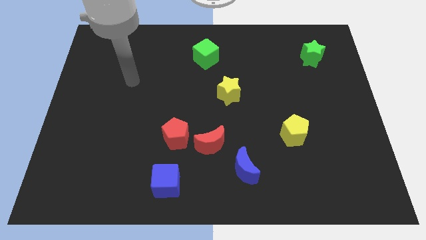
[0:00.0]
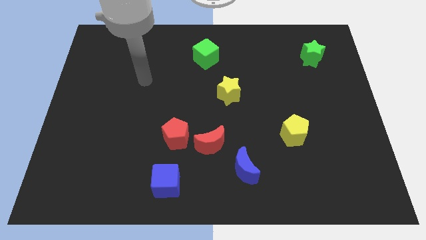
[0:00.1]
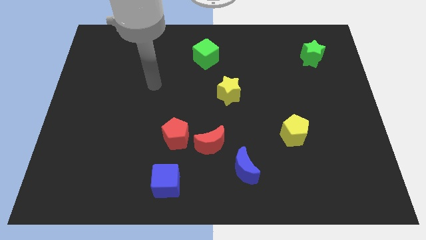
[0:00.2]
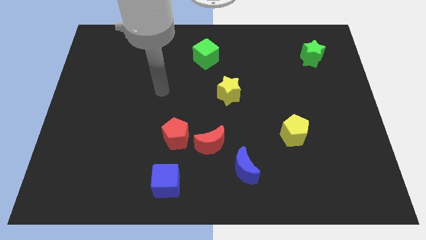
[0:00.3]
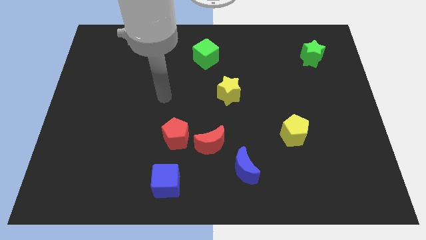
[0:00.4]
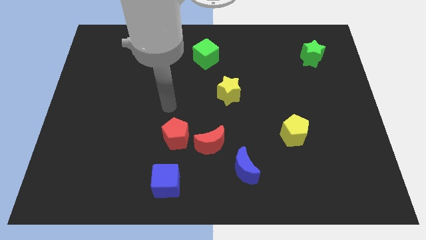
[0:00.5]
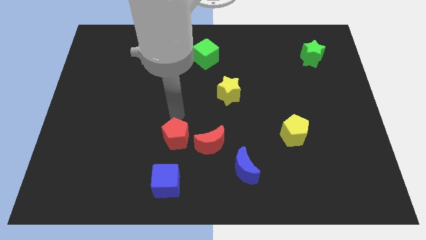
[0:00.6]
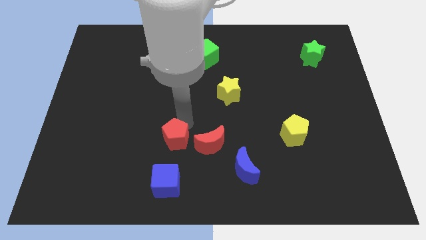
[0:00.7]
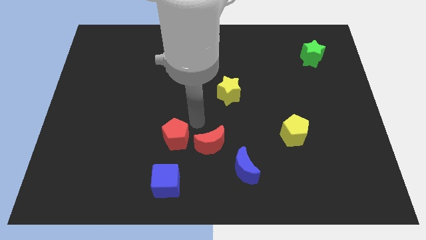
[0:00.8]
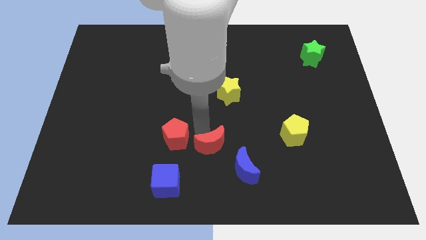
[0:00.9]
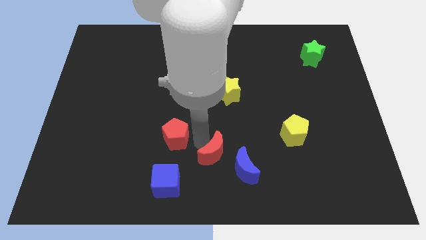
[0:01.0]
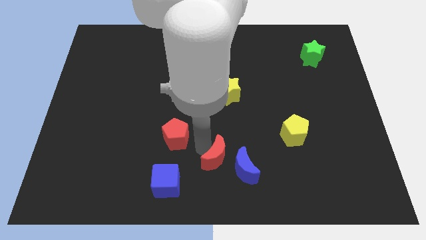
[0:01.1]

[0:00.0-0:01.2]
move the red pentagon away from the red moon

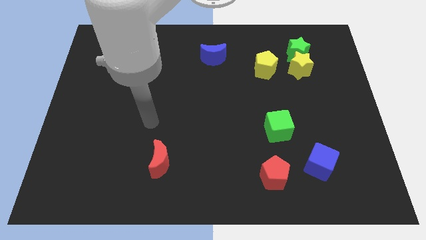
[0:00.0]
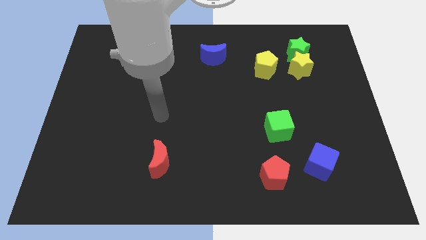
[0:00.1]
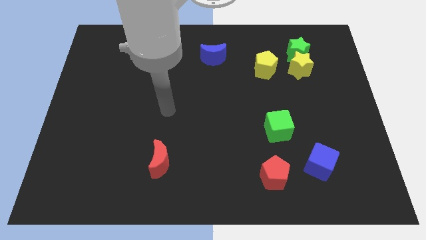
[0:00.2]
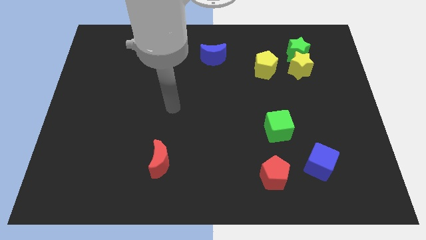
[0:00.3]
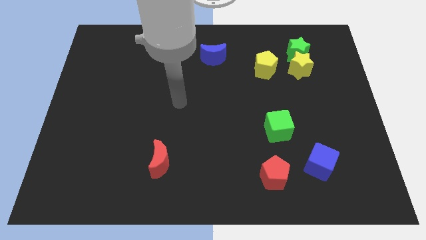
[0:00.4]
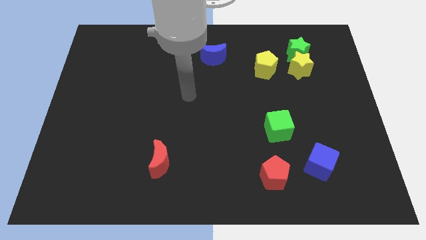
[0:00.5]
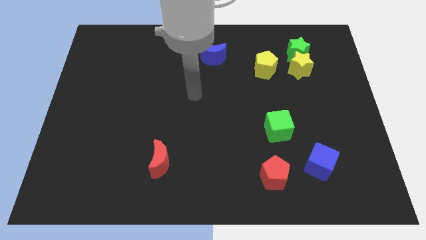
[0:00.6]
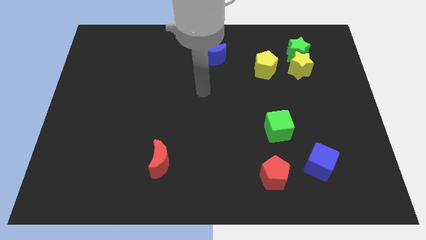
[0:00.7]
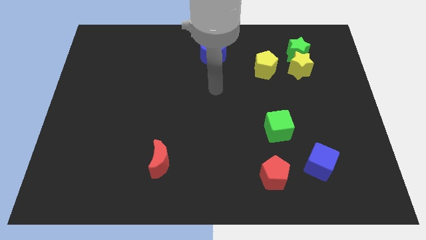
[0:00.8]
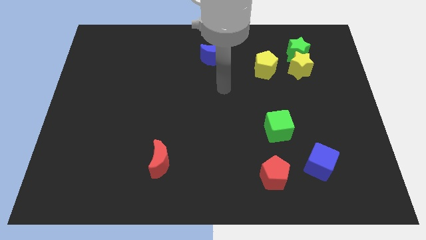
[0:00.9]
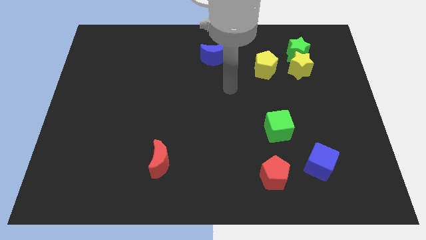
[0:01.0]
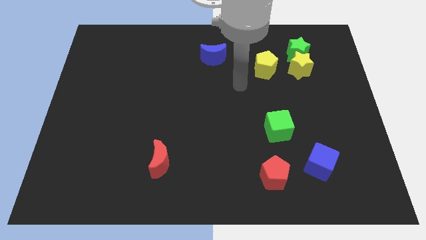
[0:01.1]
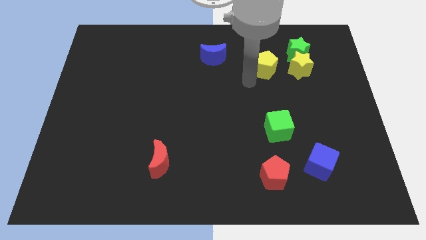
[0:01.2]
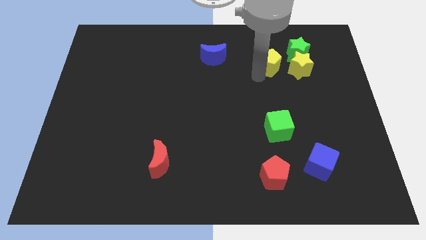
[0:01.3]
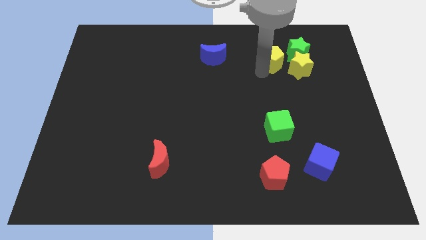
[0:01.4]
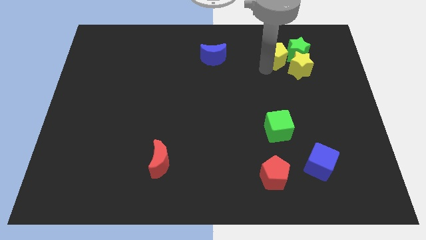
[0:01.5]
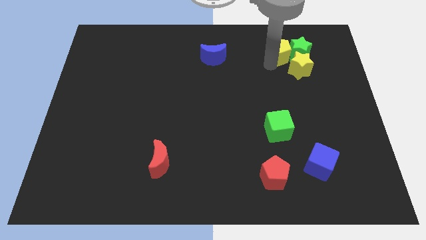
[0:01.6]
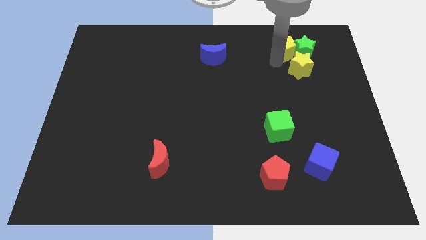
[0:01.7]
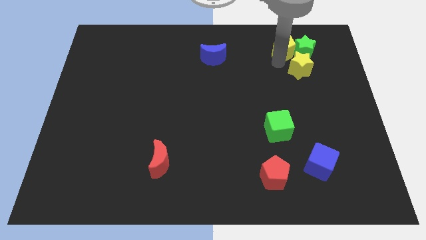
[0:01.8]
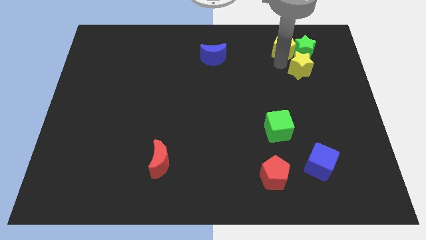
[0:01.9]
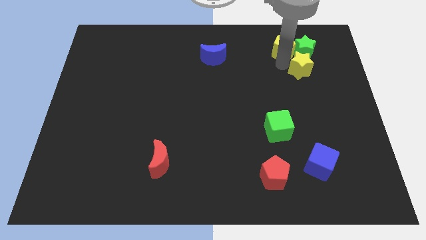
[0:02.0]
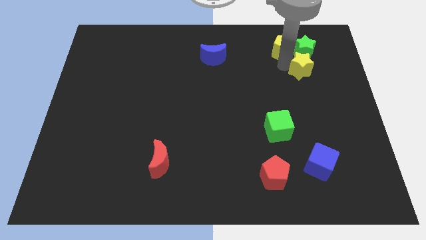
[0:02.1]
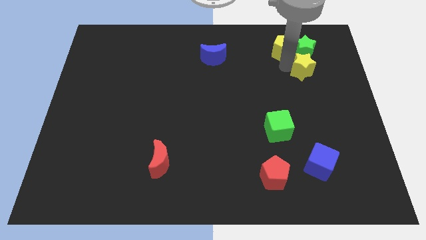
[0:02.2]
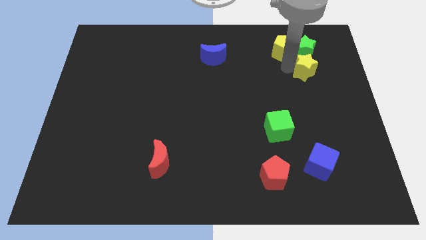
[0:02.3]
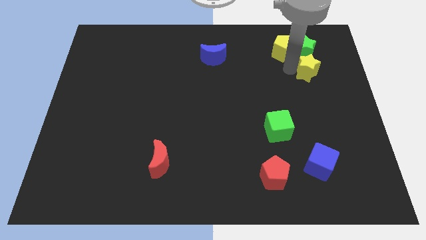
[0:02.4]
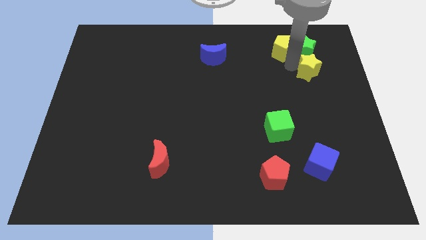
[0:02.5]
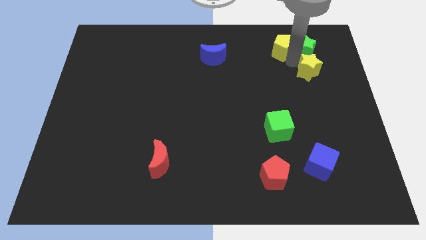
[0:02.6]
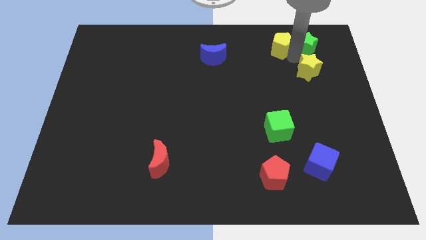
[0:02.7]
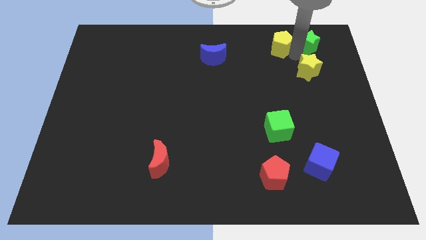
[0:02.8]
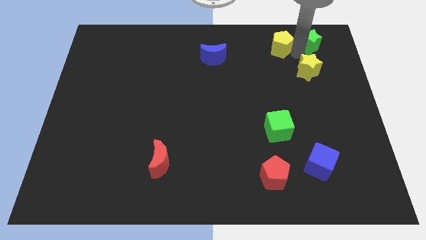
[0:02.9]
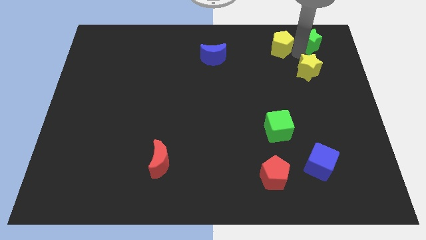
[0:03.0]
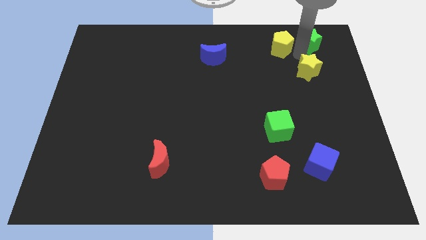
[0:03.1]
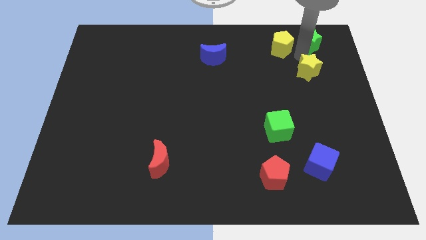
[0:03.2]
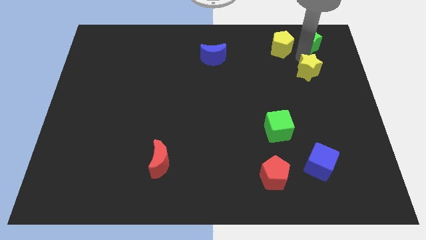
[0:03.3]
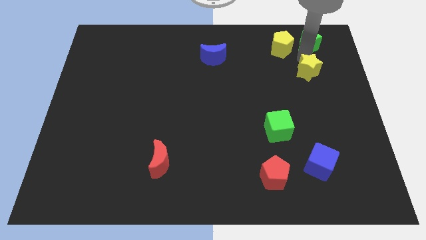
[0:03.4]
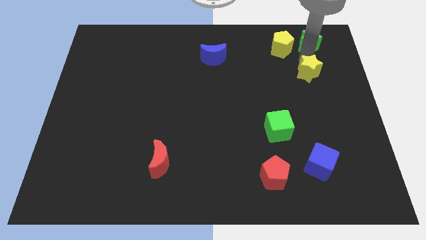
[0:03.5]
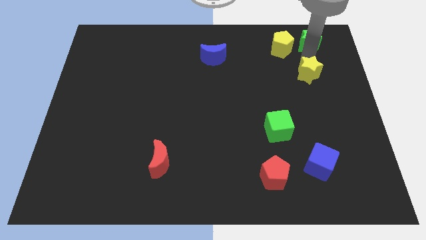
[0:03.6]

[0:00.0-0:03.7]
move the yellow star away from the green star and yellow pentagon

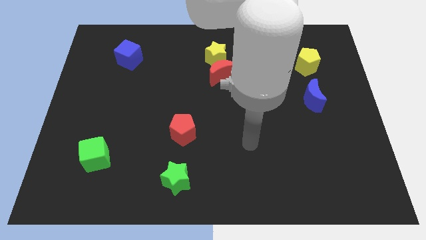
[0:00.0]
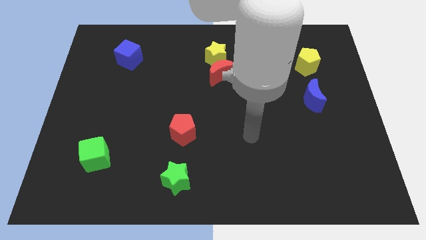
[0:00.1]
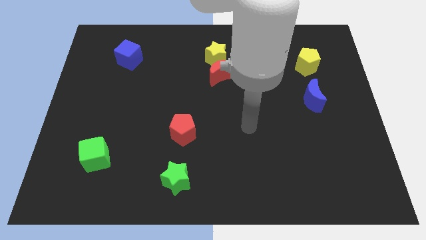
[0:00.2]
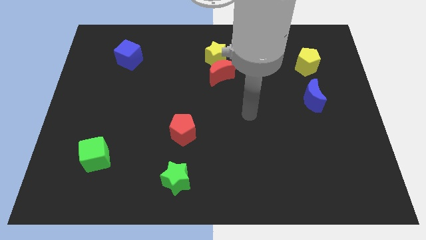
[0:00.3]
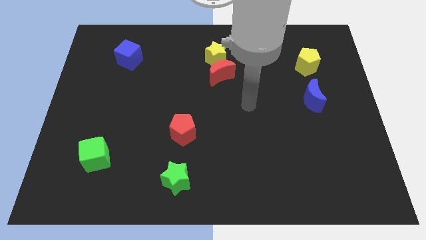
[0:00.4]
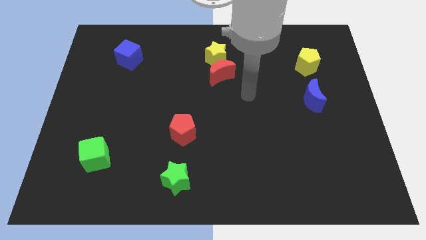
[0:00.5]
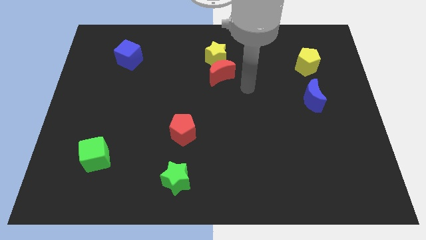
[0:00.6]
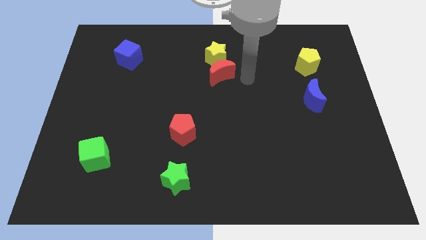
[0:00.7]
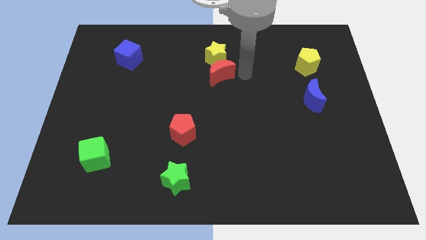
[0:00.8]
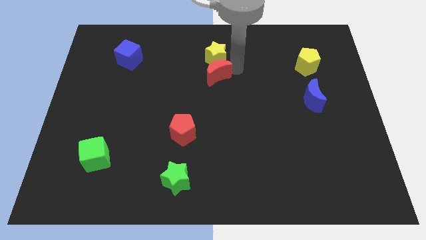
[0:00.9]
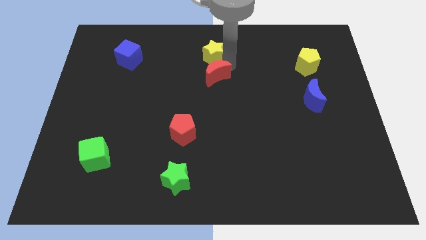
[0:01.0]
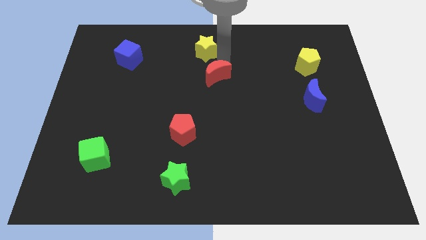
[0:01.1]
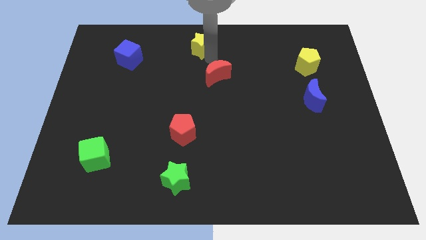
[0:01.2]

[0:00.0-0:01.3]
separate the red moon from the yellow star

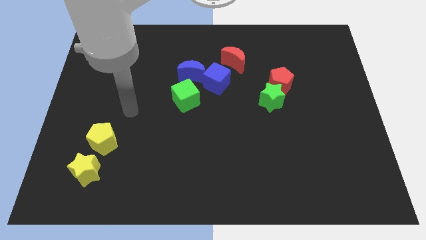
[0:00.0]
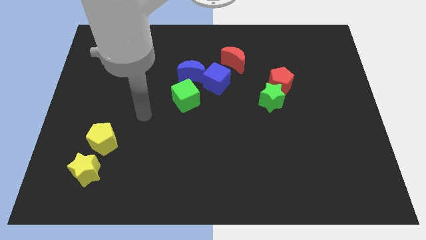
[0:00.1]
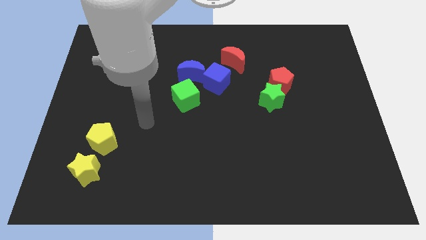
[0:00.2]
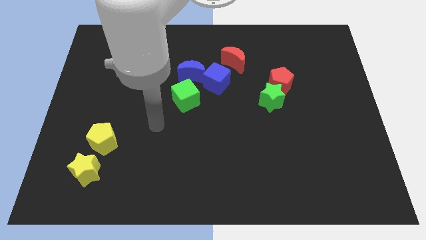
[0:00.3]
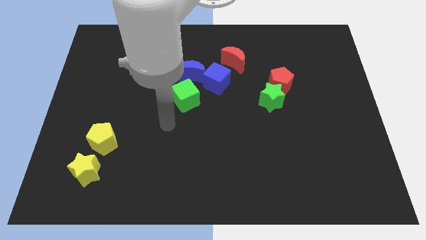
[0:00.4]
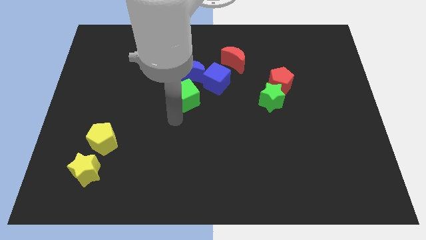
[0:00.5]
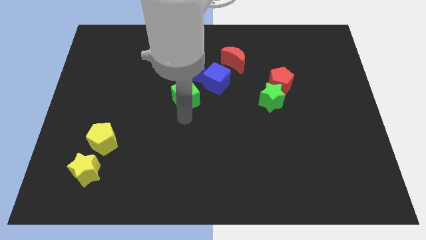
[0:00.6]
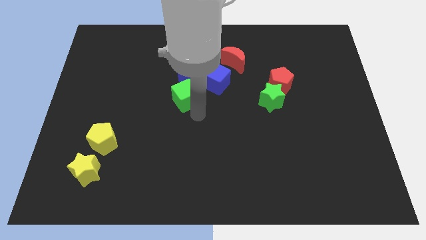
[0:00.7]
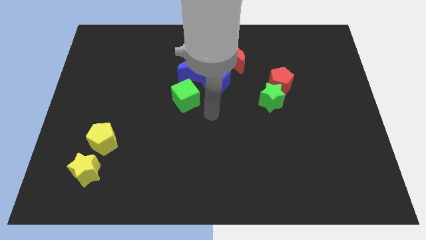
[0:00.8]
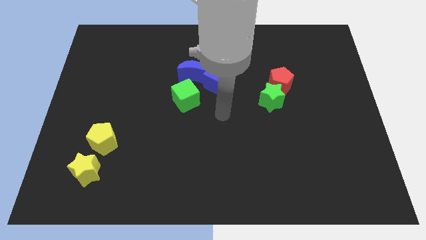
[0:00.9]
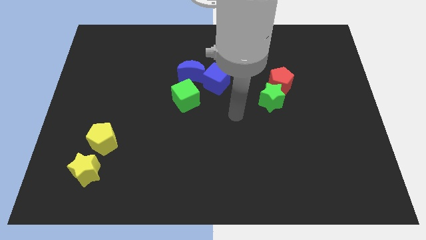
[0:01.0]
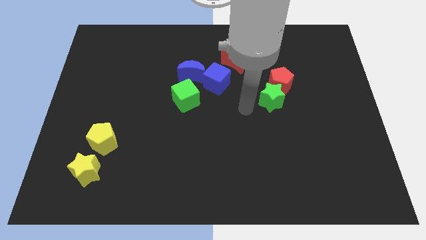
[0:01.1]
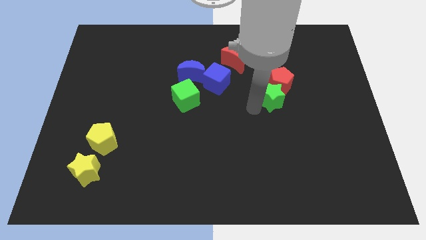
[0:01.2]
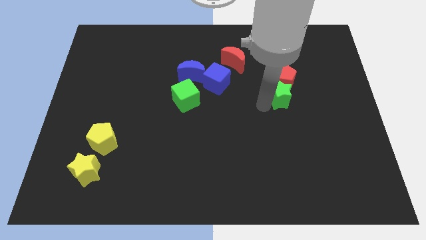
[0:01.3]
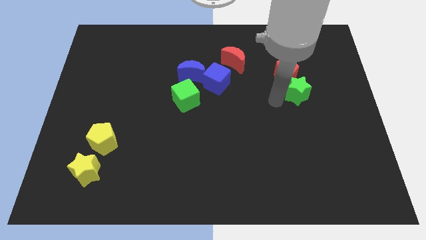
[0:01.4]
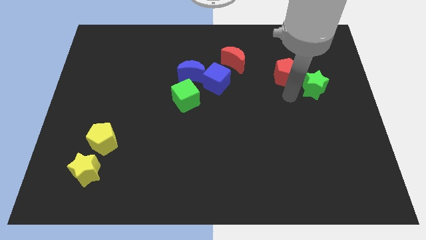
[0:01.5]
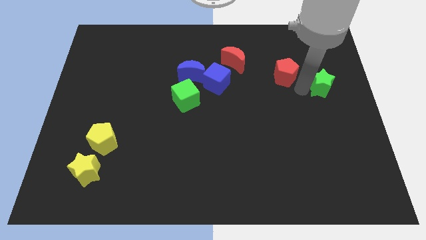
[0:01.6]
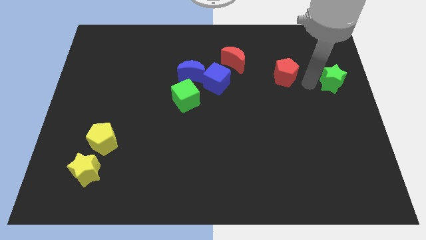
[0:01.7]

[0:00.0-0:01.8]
move the red pentagon away from the green star

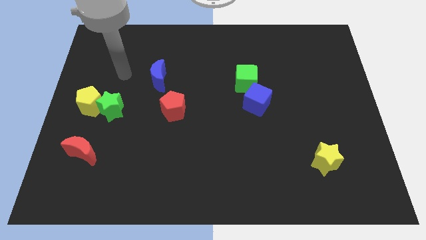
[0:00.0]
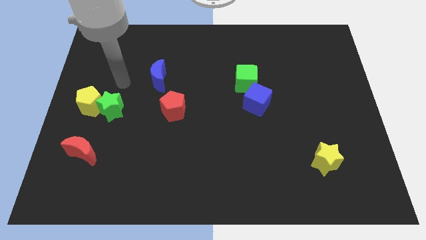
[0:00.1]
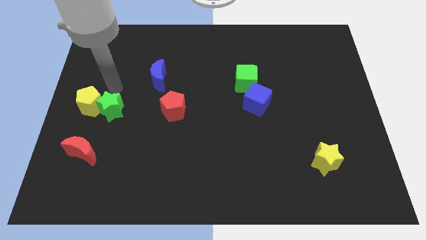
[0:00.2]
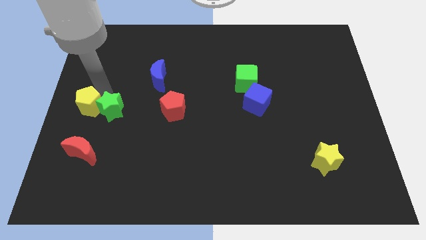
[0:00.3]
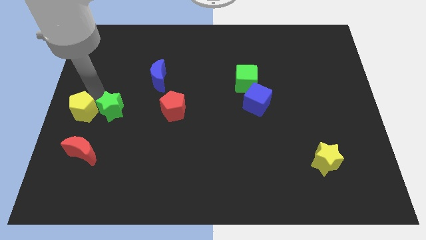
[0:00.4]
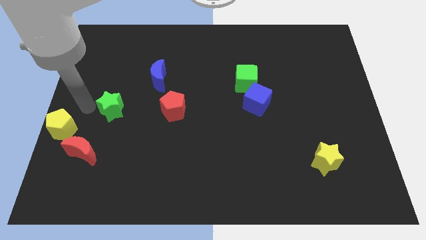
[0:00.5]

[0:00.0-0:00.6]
move the green star away from the yellow pentagon

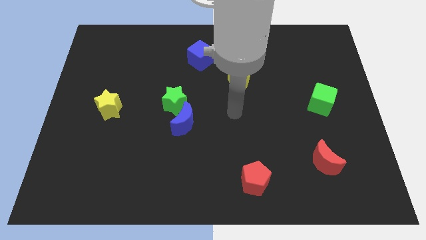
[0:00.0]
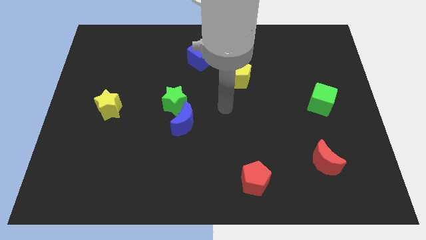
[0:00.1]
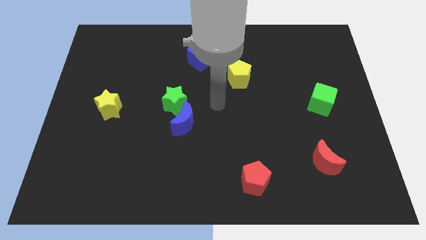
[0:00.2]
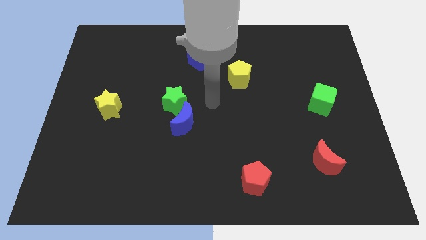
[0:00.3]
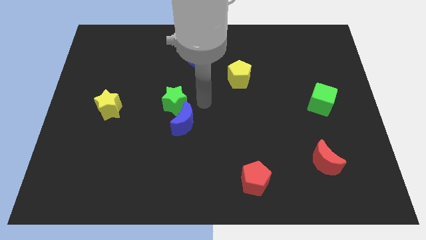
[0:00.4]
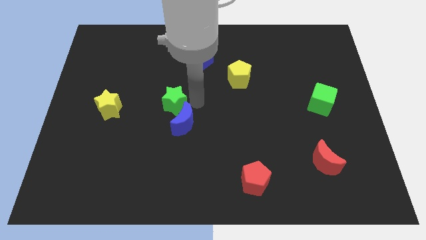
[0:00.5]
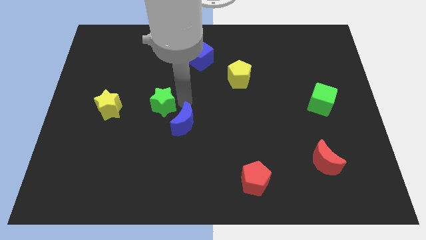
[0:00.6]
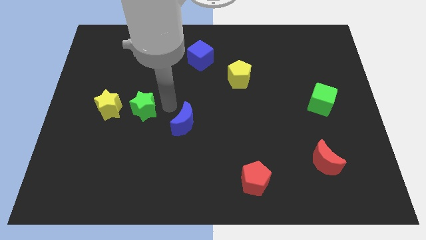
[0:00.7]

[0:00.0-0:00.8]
pull the blue moon apart from the green star
